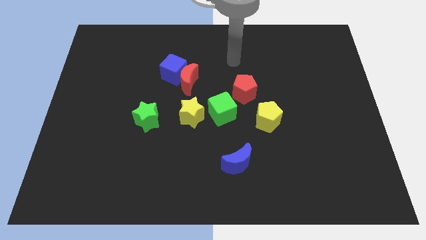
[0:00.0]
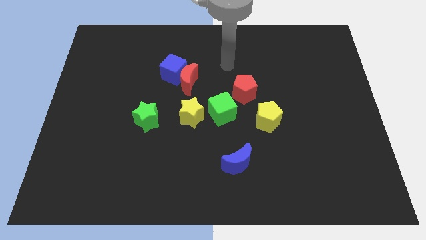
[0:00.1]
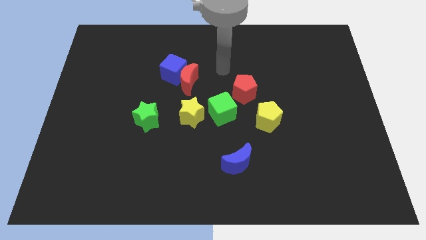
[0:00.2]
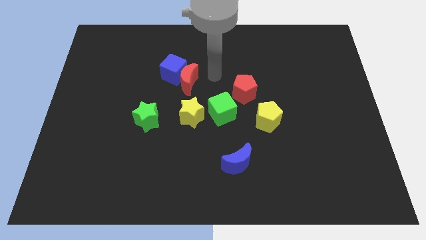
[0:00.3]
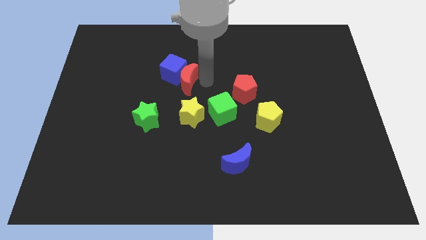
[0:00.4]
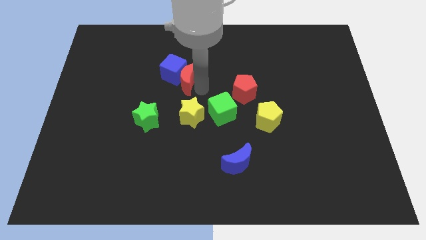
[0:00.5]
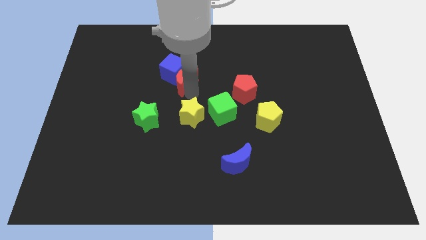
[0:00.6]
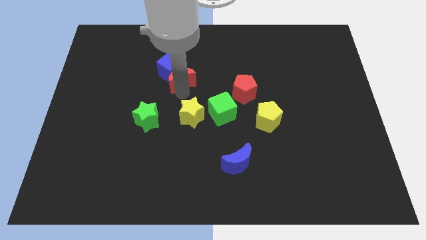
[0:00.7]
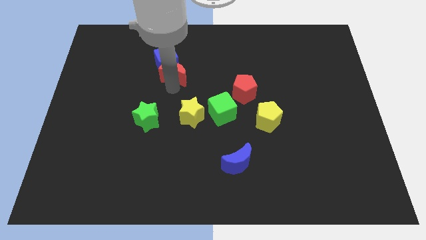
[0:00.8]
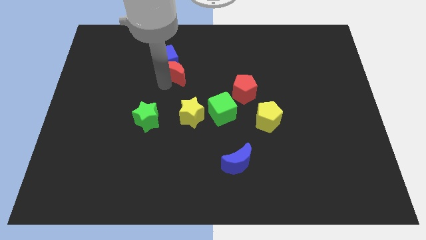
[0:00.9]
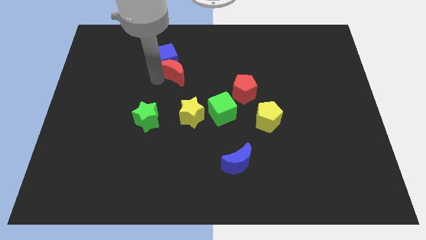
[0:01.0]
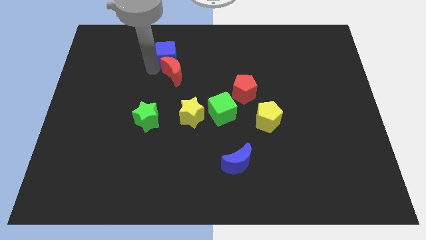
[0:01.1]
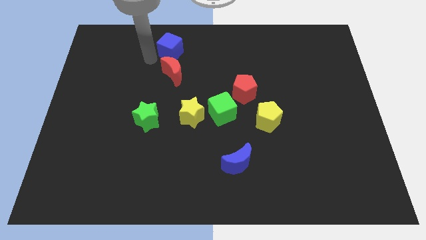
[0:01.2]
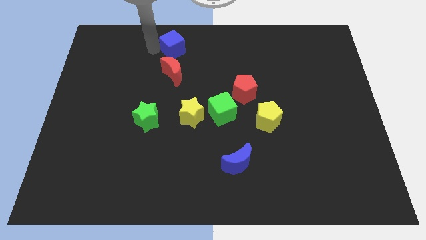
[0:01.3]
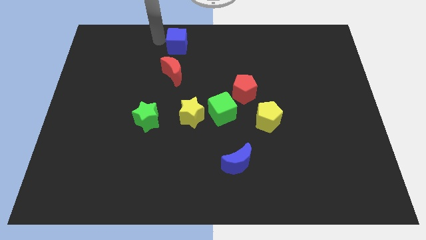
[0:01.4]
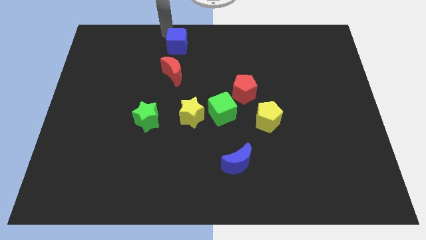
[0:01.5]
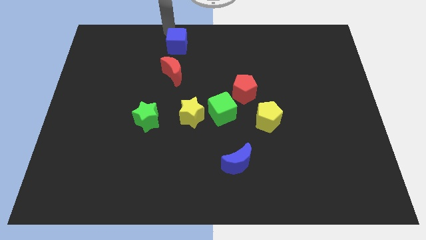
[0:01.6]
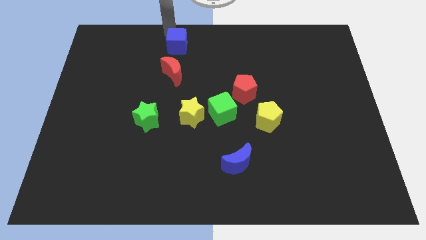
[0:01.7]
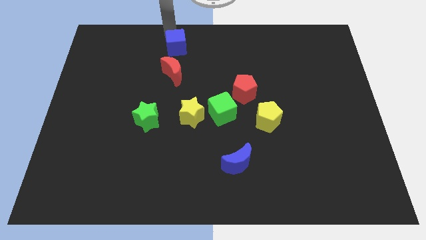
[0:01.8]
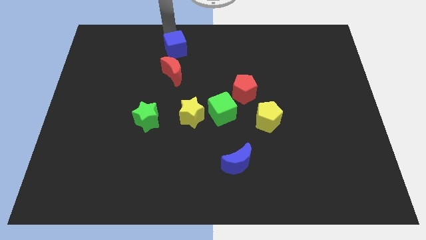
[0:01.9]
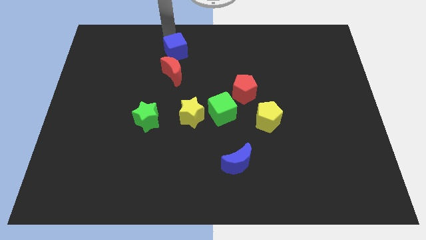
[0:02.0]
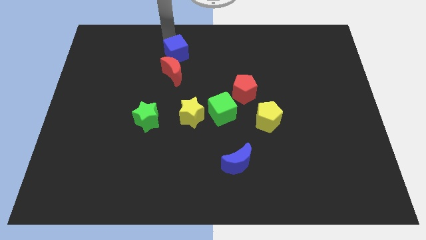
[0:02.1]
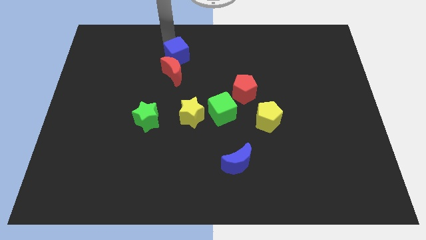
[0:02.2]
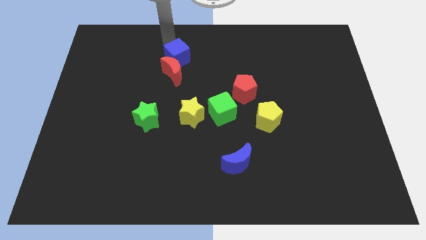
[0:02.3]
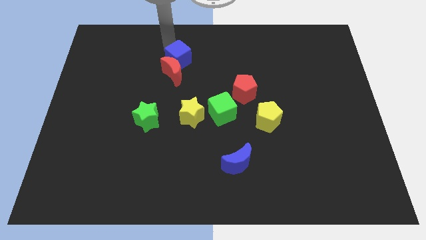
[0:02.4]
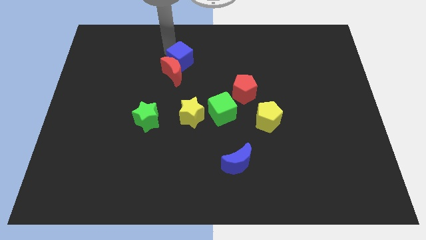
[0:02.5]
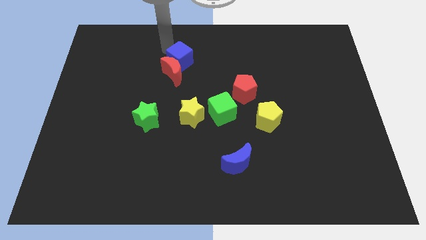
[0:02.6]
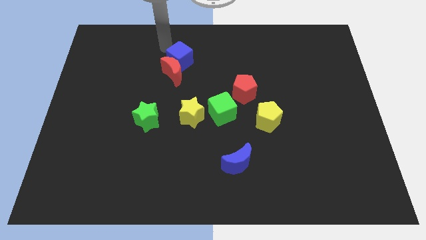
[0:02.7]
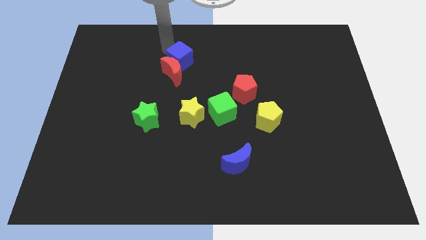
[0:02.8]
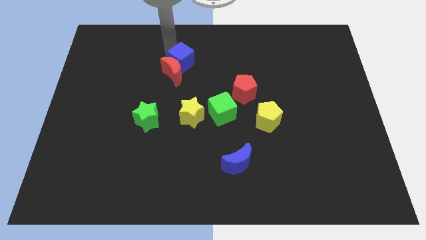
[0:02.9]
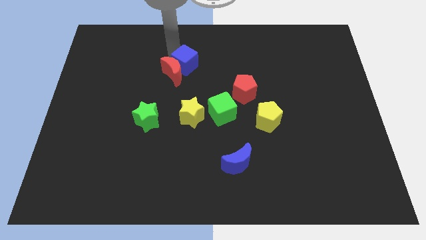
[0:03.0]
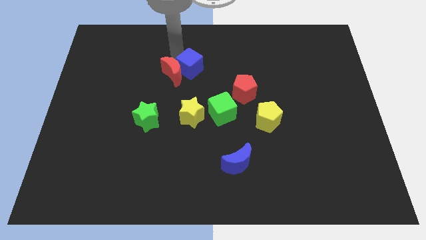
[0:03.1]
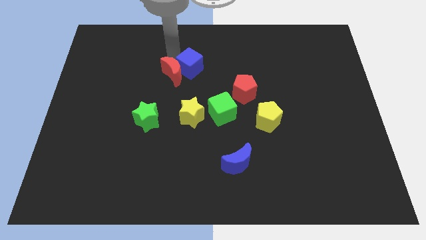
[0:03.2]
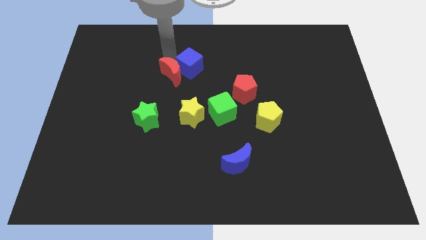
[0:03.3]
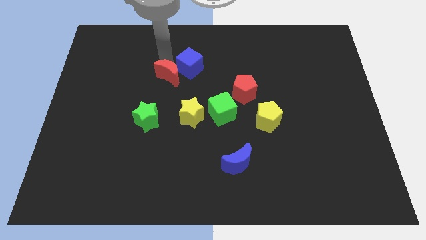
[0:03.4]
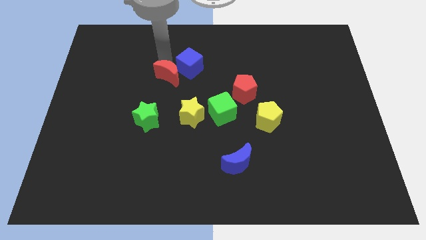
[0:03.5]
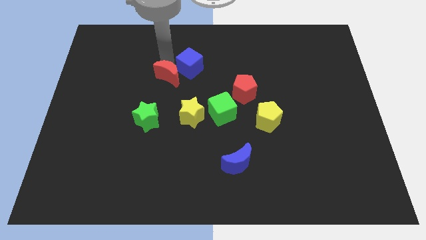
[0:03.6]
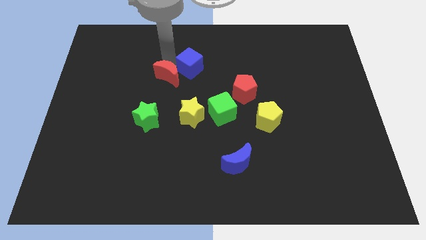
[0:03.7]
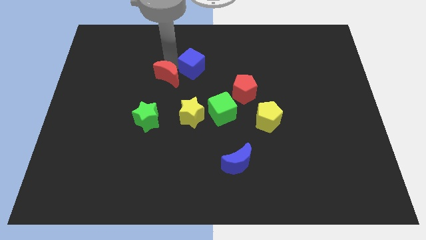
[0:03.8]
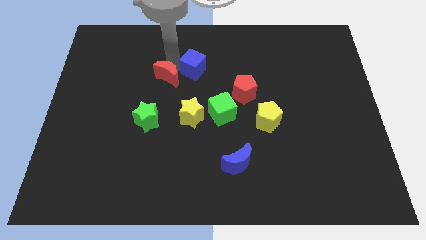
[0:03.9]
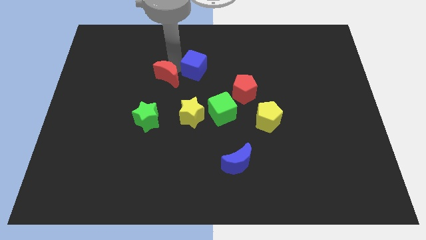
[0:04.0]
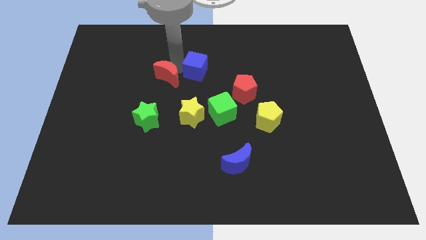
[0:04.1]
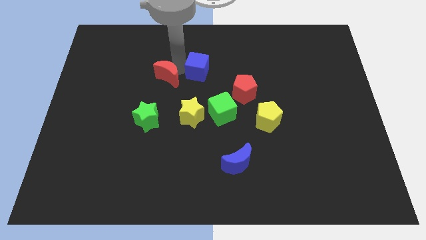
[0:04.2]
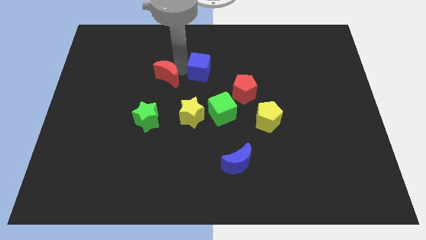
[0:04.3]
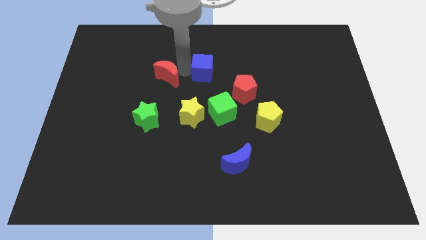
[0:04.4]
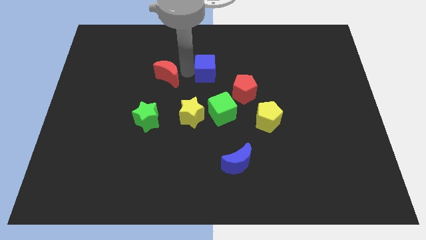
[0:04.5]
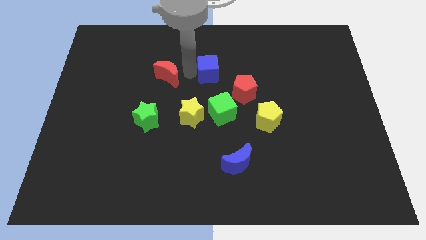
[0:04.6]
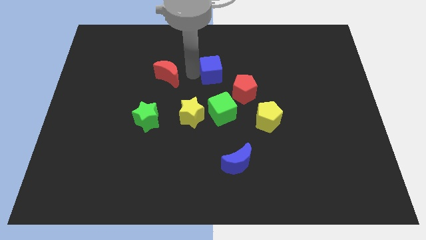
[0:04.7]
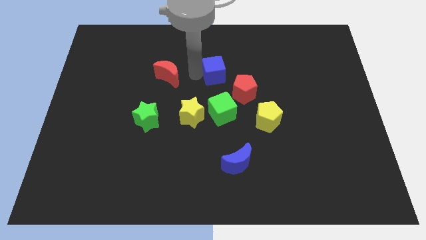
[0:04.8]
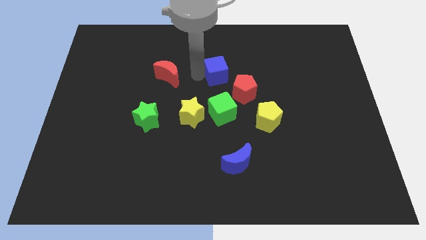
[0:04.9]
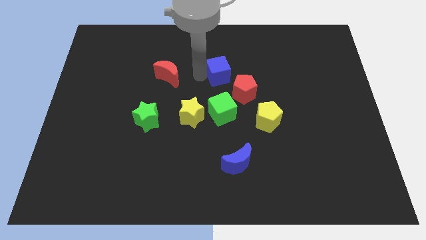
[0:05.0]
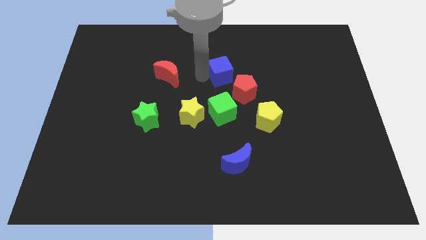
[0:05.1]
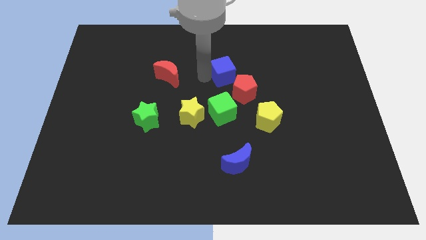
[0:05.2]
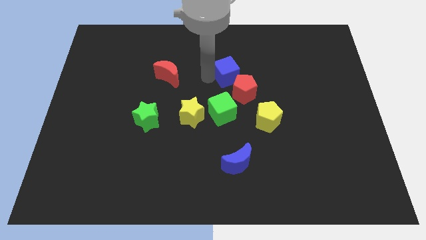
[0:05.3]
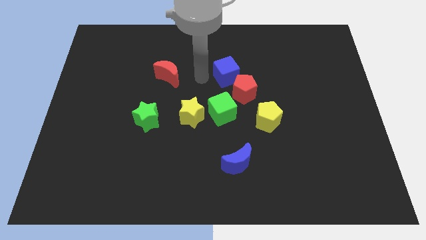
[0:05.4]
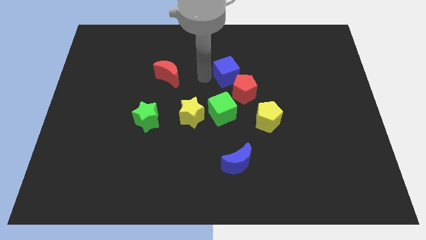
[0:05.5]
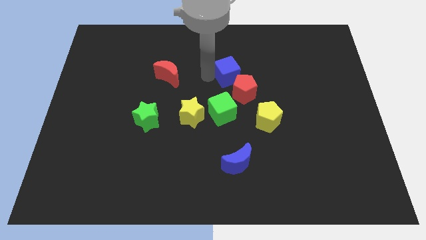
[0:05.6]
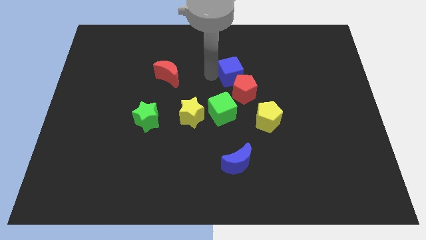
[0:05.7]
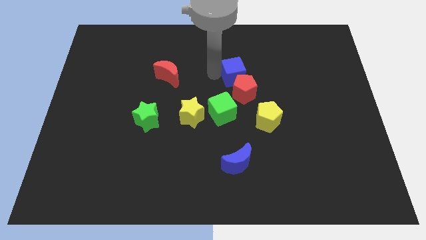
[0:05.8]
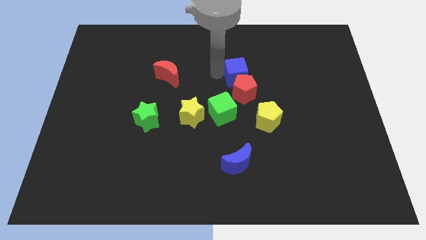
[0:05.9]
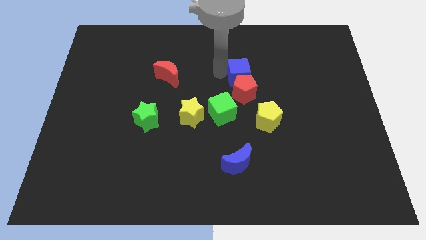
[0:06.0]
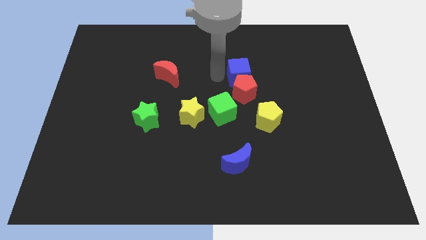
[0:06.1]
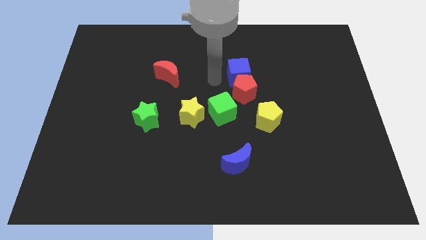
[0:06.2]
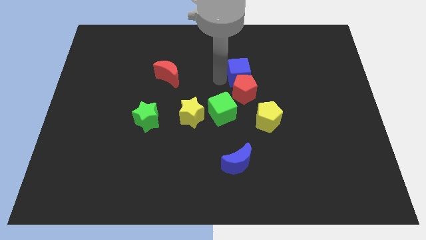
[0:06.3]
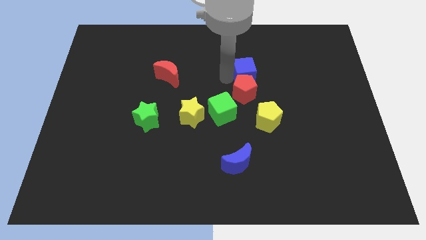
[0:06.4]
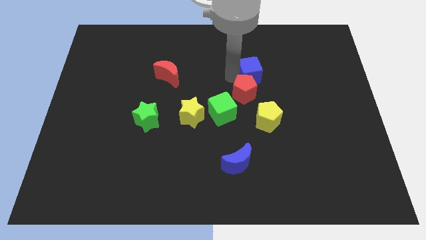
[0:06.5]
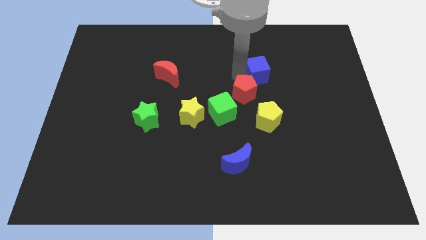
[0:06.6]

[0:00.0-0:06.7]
push the blue cube right

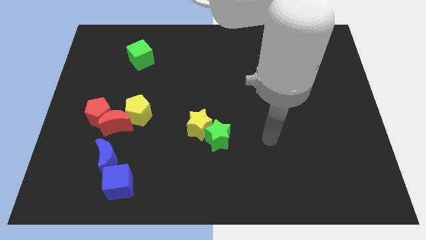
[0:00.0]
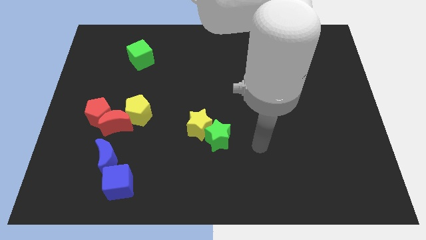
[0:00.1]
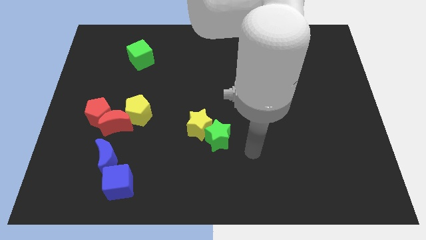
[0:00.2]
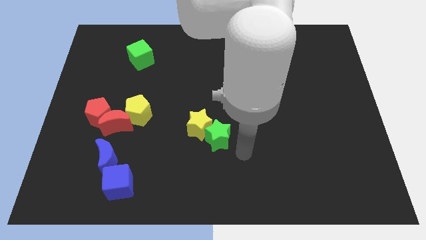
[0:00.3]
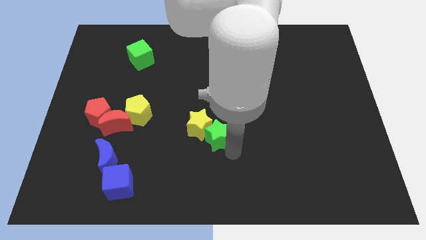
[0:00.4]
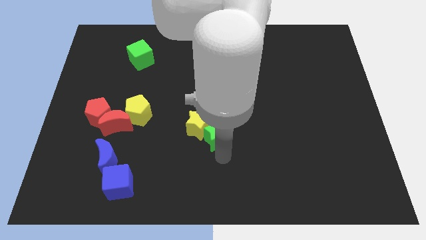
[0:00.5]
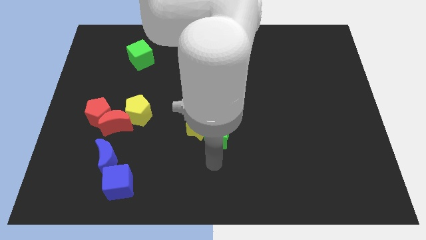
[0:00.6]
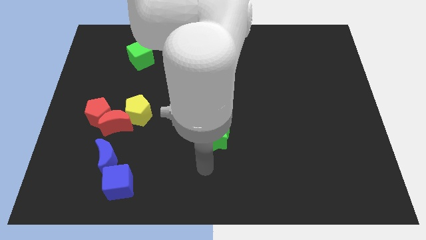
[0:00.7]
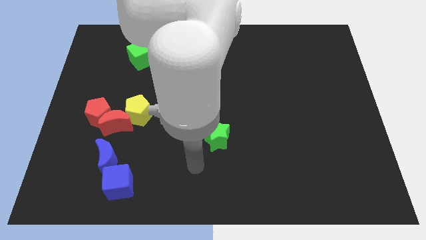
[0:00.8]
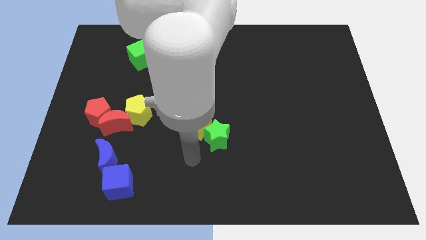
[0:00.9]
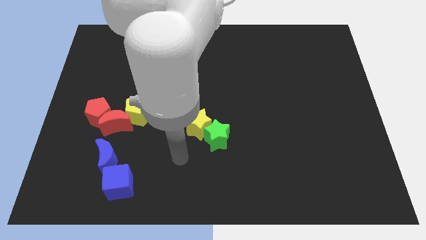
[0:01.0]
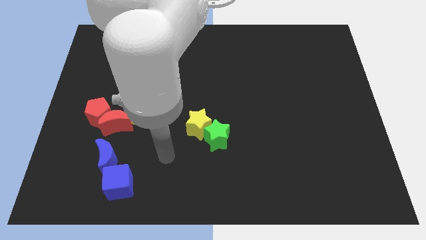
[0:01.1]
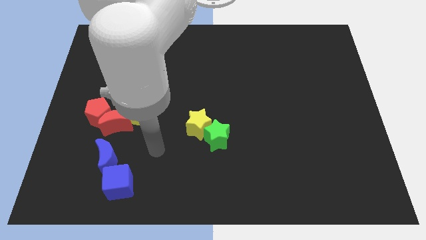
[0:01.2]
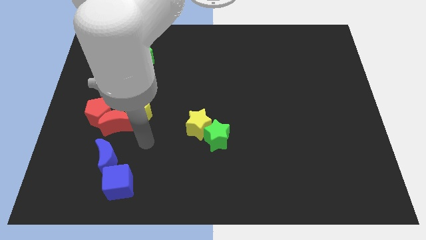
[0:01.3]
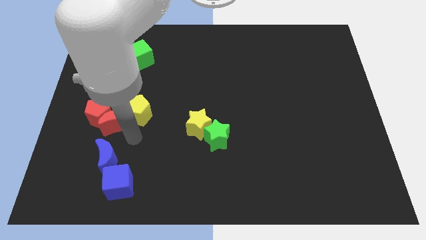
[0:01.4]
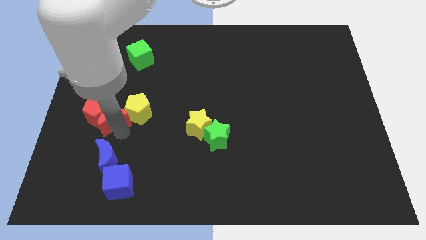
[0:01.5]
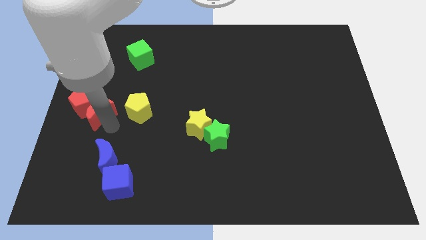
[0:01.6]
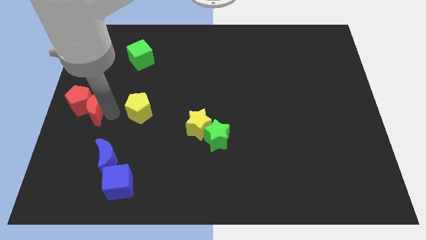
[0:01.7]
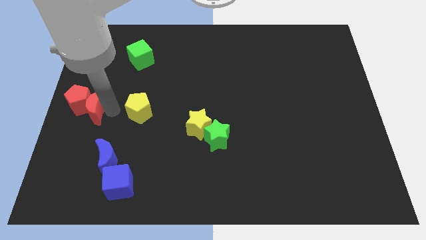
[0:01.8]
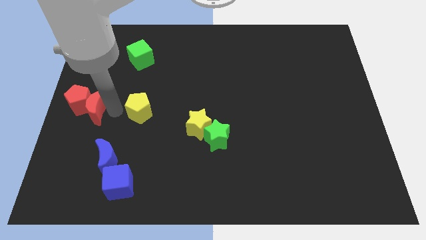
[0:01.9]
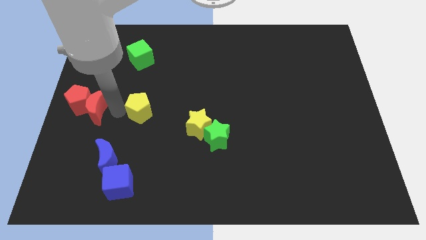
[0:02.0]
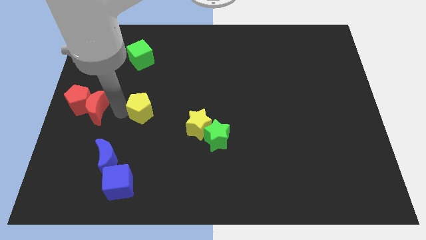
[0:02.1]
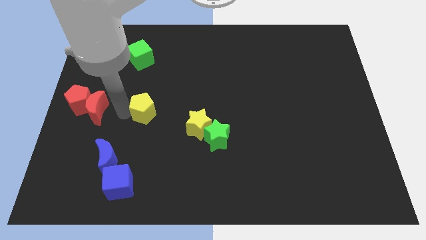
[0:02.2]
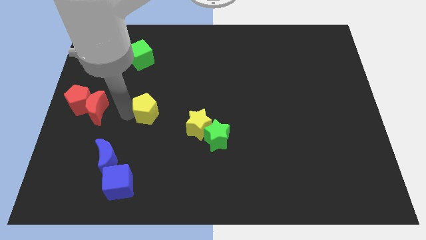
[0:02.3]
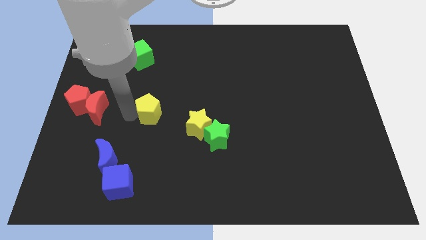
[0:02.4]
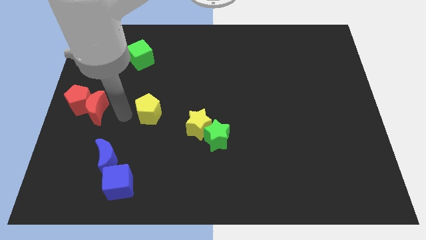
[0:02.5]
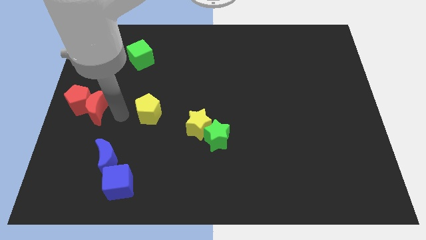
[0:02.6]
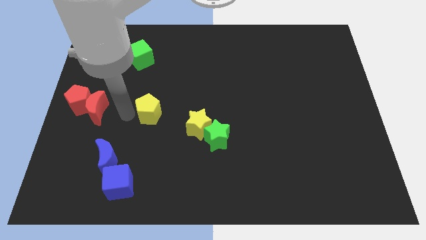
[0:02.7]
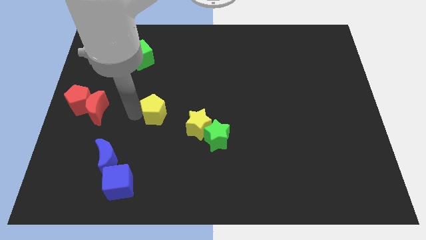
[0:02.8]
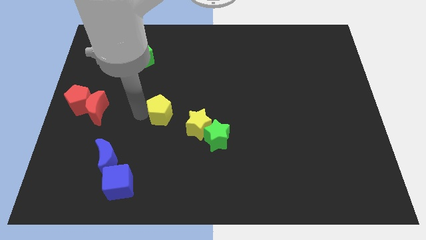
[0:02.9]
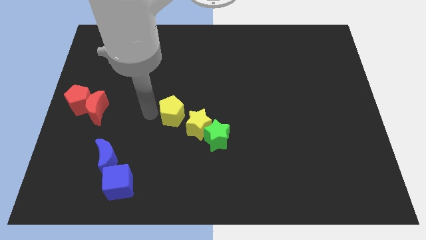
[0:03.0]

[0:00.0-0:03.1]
push the yellow pentagon a bit to the right
